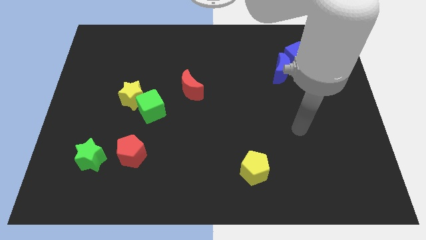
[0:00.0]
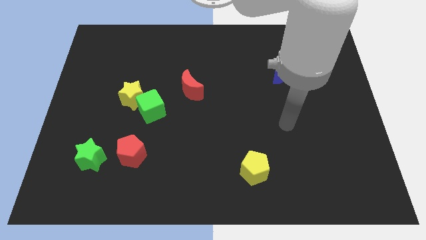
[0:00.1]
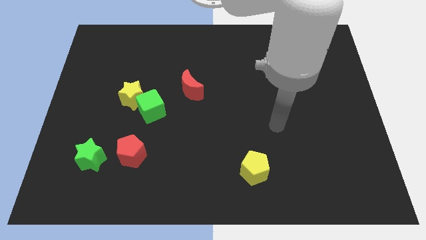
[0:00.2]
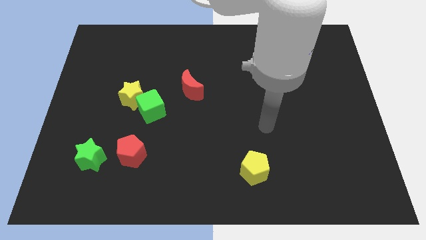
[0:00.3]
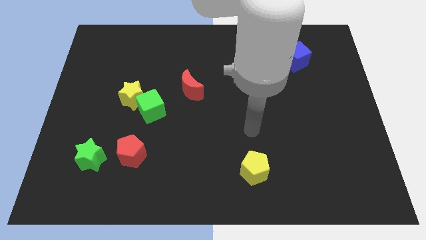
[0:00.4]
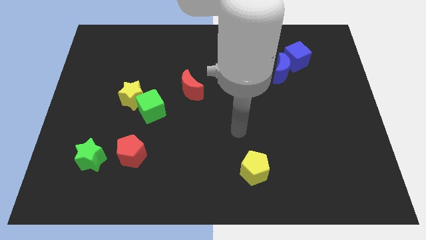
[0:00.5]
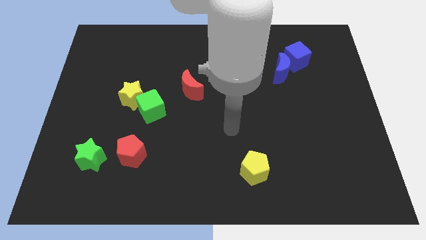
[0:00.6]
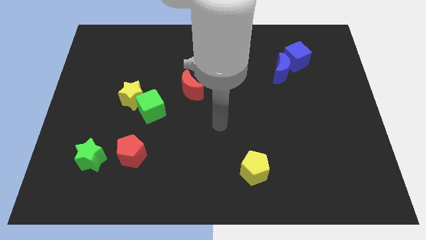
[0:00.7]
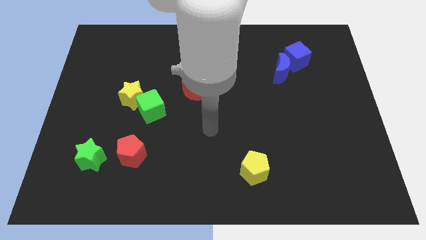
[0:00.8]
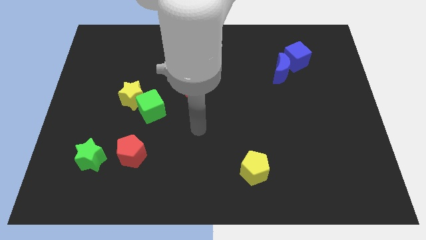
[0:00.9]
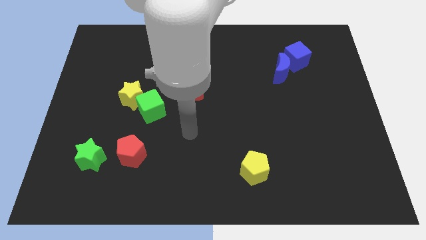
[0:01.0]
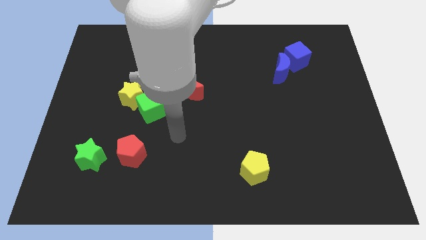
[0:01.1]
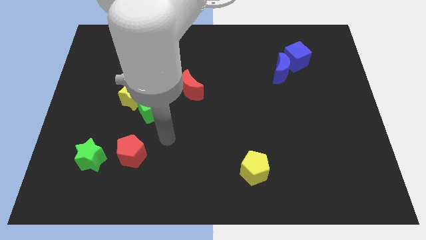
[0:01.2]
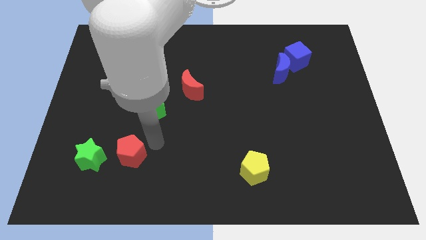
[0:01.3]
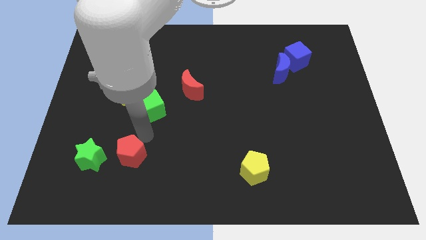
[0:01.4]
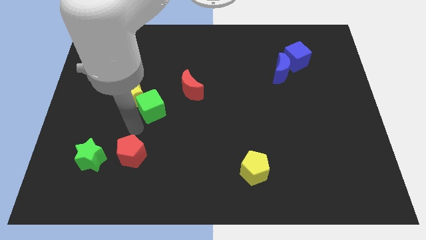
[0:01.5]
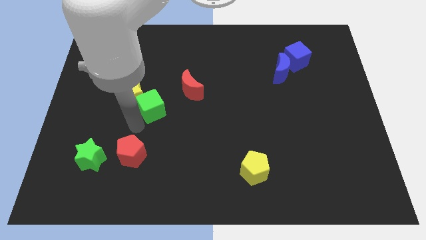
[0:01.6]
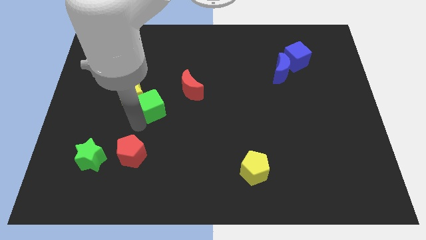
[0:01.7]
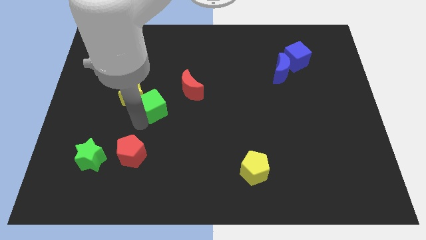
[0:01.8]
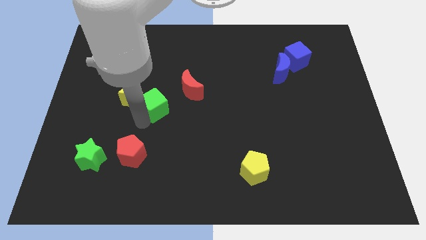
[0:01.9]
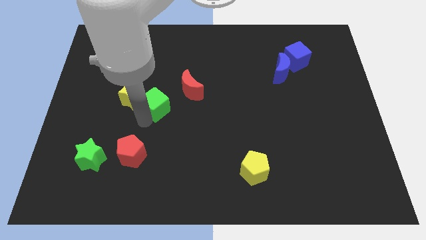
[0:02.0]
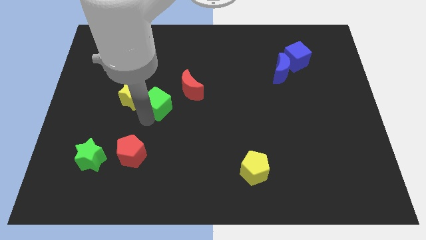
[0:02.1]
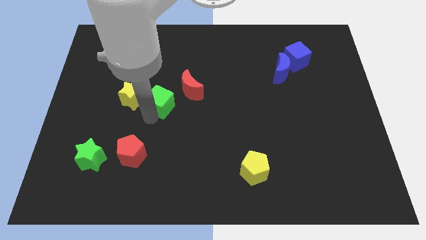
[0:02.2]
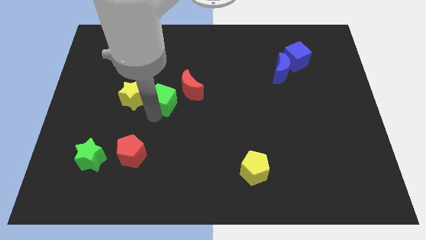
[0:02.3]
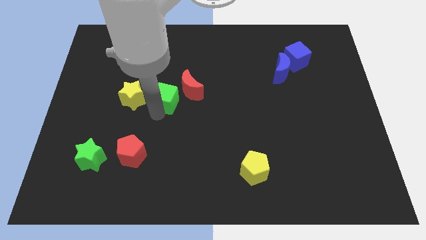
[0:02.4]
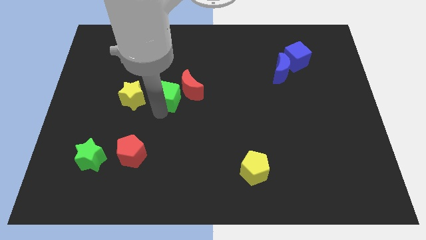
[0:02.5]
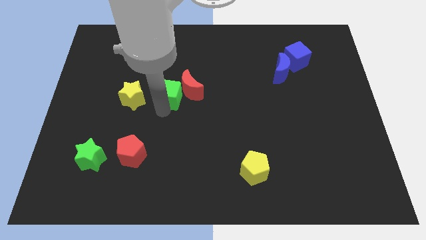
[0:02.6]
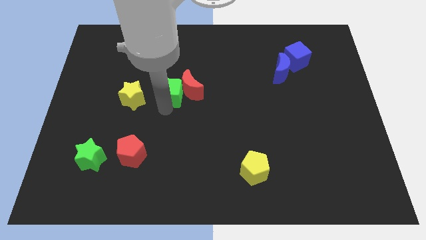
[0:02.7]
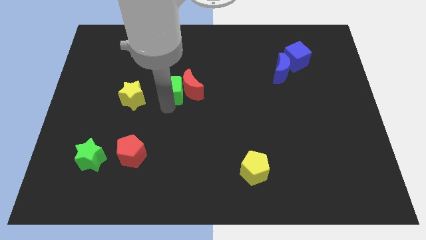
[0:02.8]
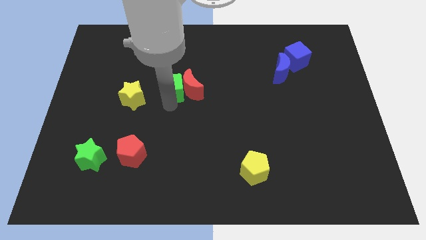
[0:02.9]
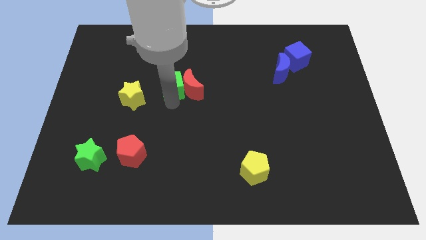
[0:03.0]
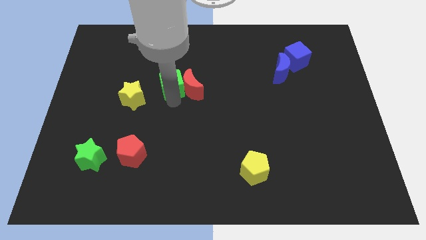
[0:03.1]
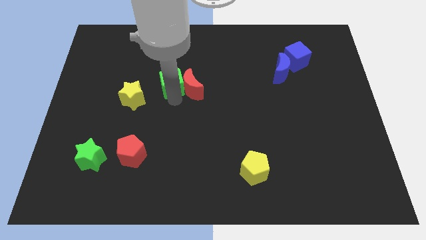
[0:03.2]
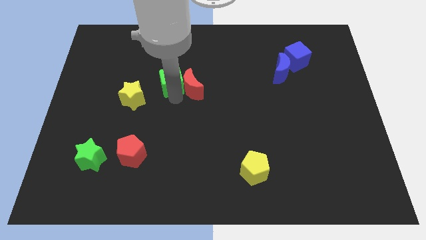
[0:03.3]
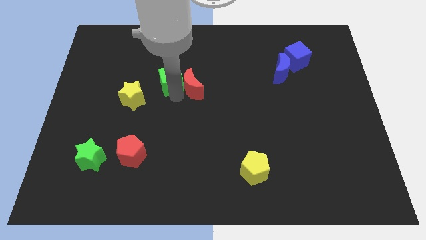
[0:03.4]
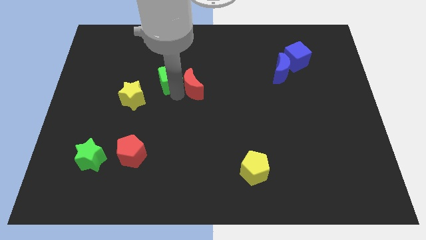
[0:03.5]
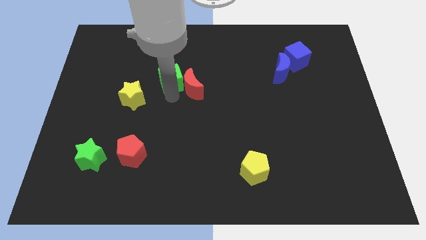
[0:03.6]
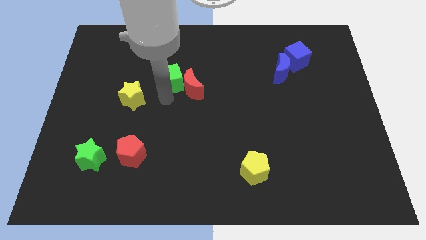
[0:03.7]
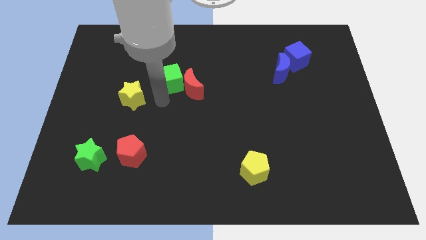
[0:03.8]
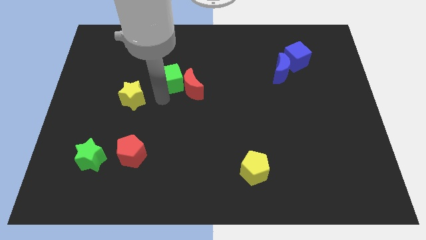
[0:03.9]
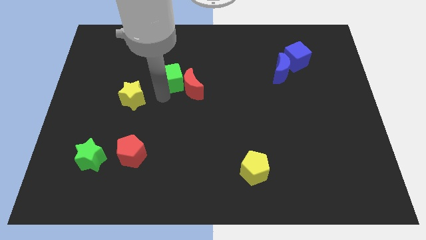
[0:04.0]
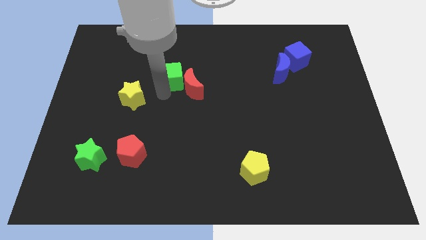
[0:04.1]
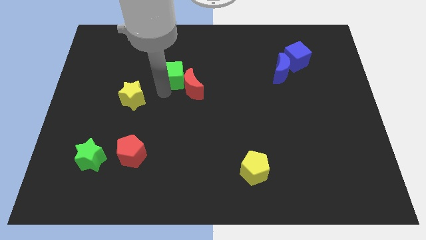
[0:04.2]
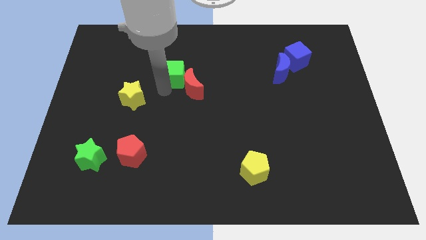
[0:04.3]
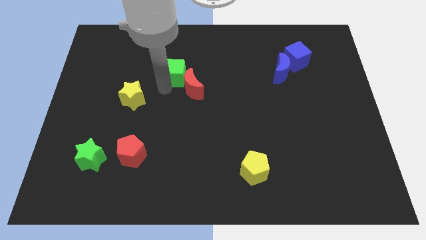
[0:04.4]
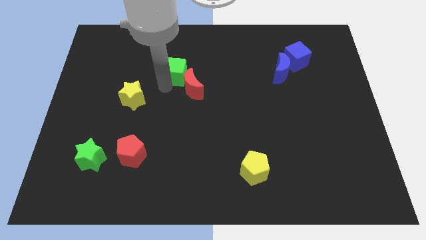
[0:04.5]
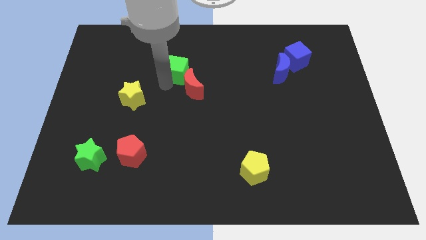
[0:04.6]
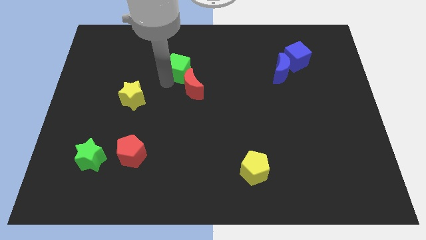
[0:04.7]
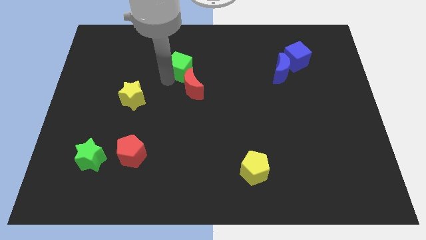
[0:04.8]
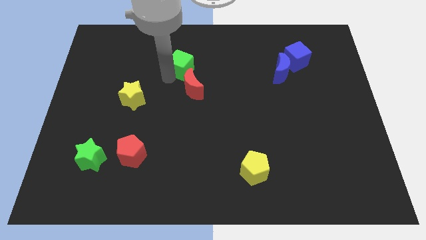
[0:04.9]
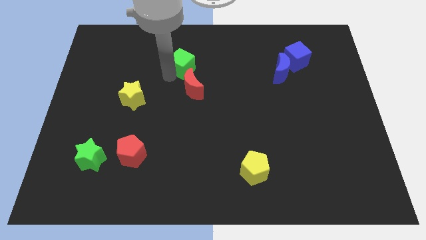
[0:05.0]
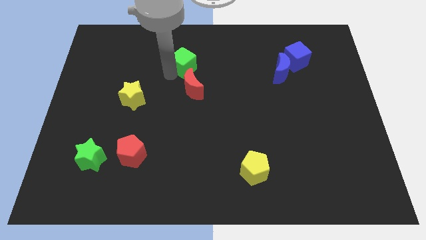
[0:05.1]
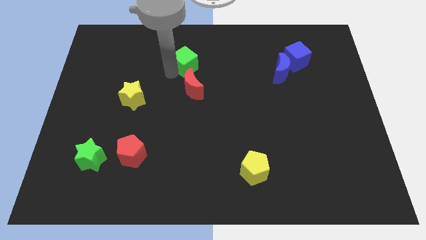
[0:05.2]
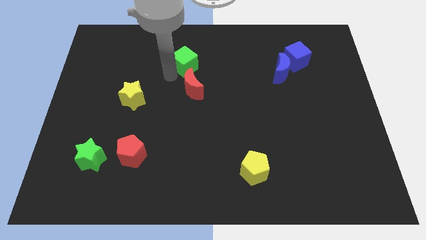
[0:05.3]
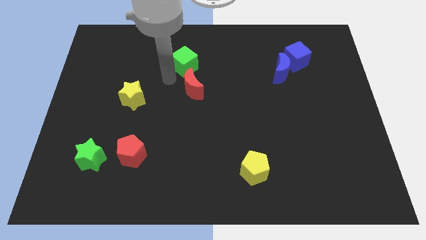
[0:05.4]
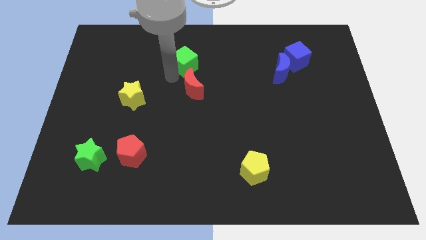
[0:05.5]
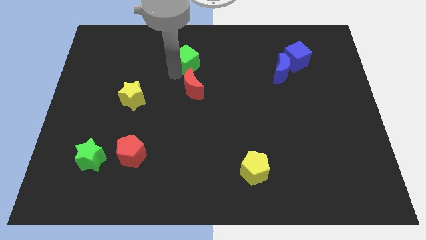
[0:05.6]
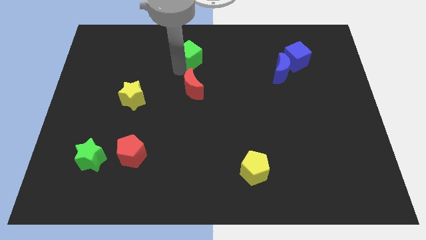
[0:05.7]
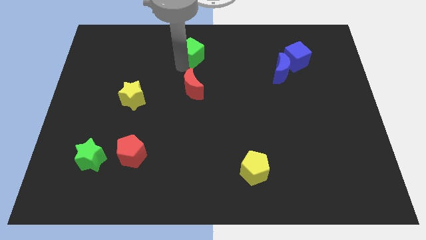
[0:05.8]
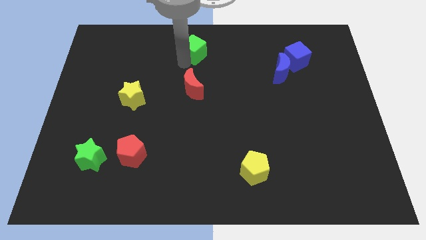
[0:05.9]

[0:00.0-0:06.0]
put the green cube to the top side
